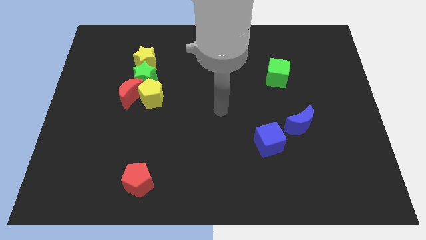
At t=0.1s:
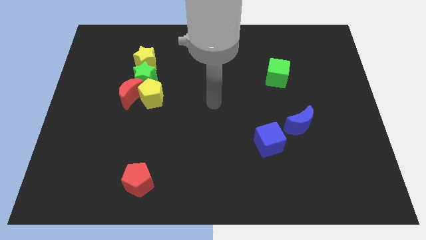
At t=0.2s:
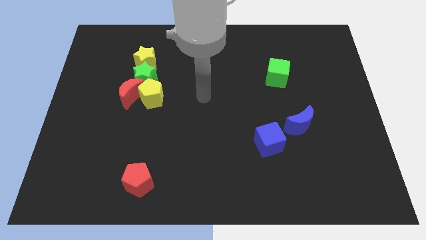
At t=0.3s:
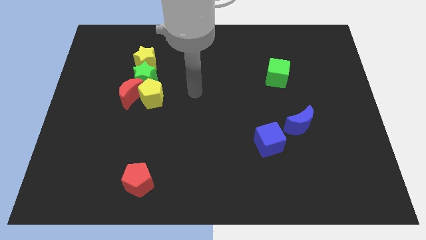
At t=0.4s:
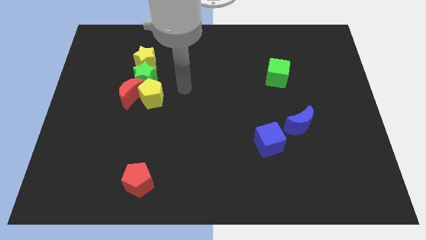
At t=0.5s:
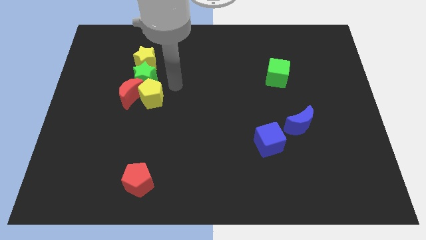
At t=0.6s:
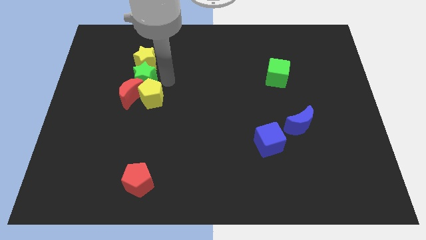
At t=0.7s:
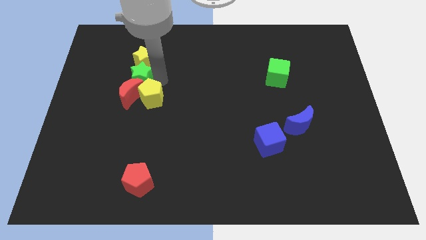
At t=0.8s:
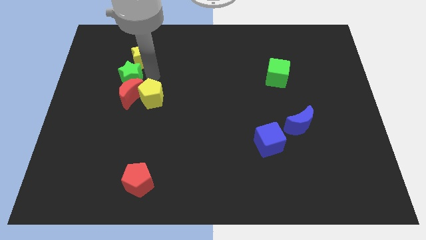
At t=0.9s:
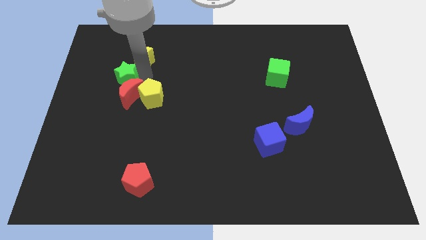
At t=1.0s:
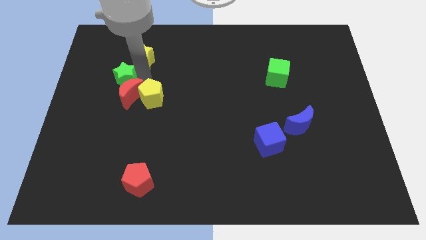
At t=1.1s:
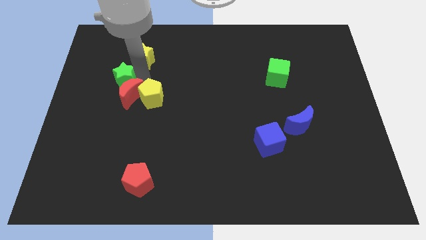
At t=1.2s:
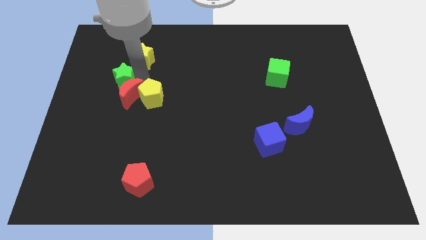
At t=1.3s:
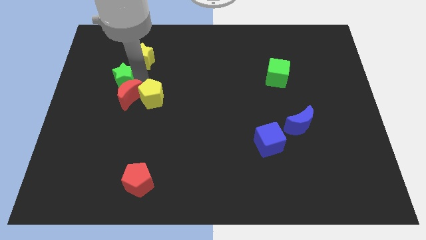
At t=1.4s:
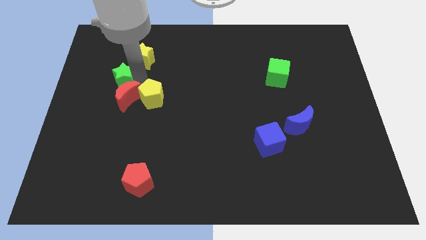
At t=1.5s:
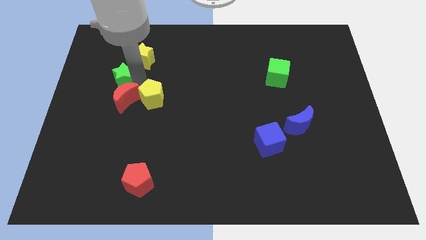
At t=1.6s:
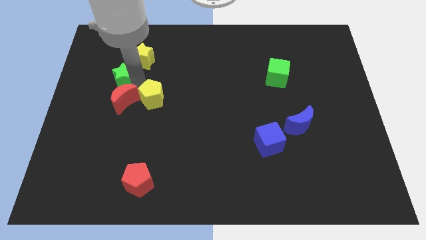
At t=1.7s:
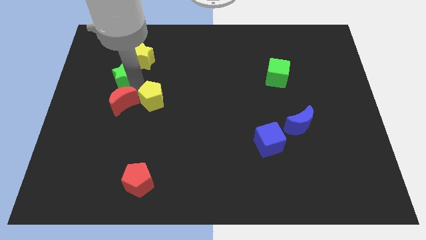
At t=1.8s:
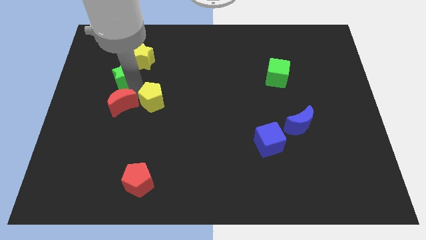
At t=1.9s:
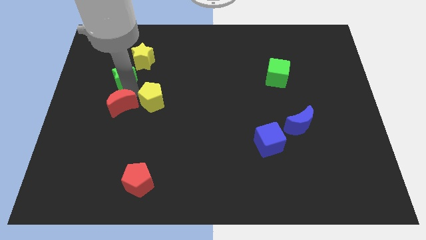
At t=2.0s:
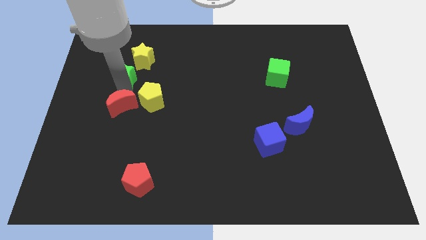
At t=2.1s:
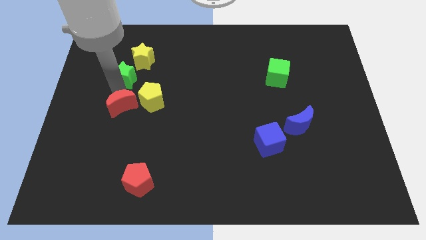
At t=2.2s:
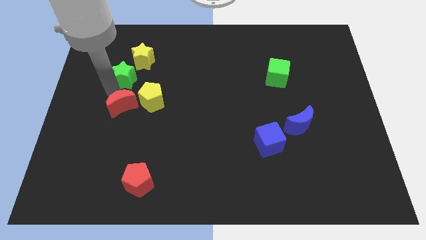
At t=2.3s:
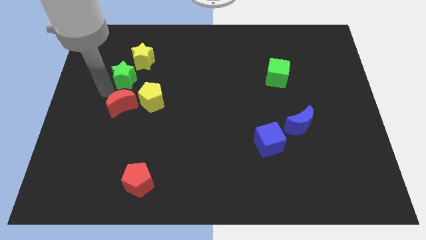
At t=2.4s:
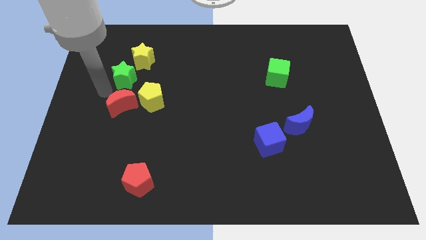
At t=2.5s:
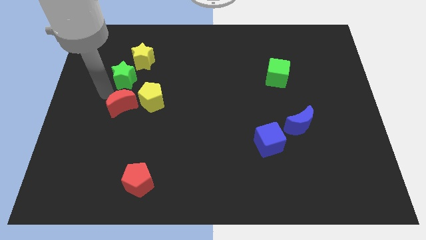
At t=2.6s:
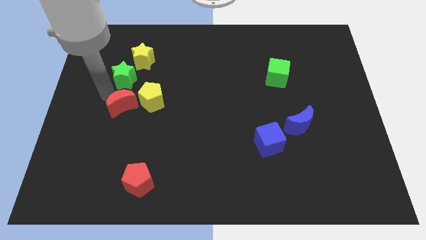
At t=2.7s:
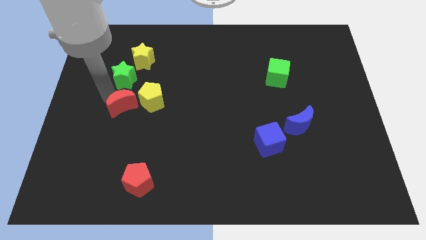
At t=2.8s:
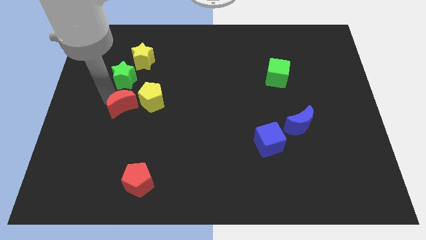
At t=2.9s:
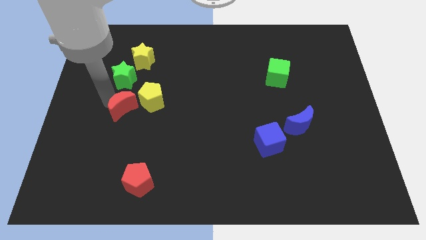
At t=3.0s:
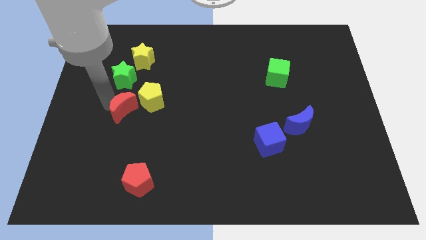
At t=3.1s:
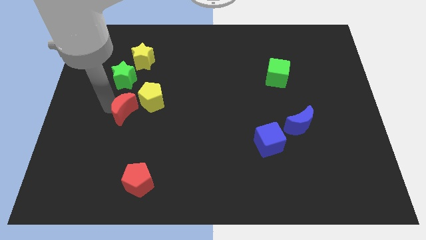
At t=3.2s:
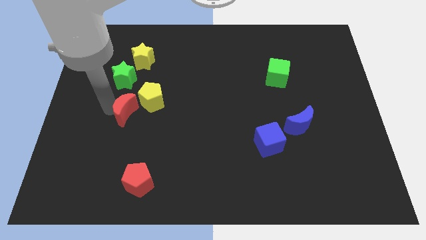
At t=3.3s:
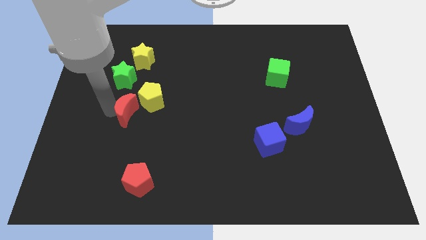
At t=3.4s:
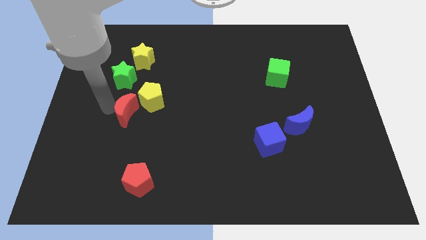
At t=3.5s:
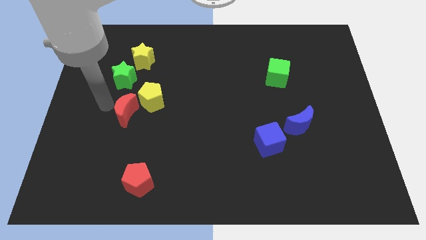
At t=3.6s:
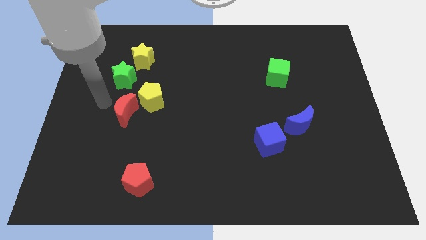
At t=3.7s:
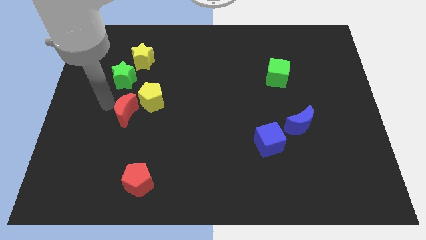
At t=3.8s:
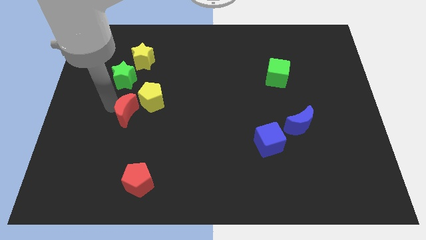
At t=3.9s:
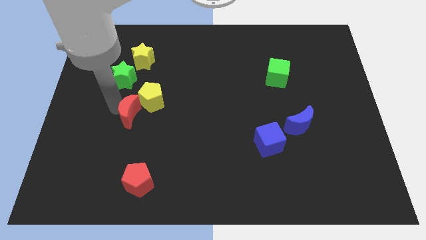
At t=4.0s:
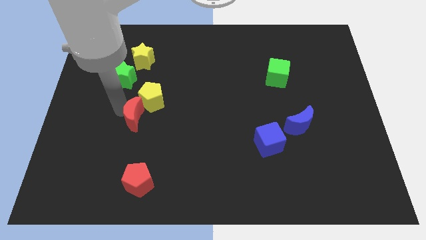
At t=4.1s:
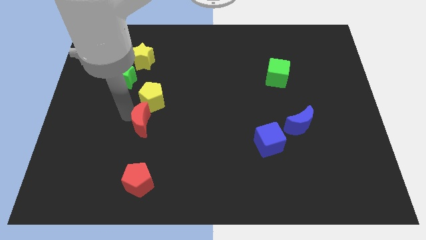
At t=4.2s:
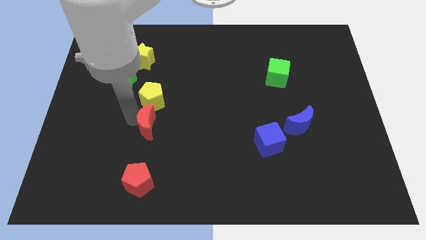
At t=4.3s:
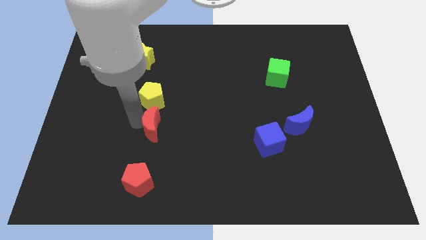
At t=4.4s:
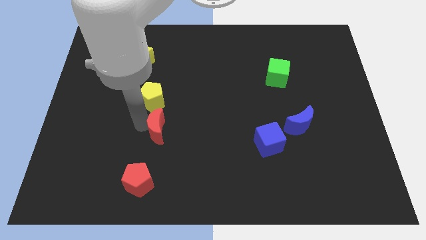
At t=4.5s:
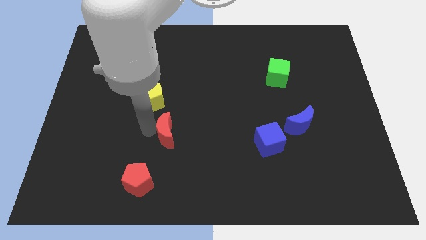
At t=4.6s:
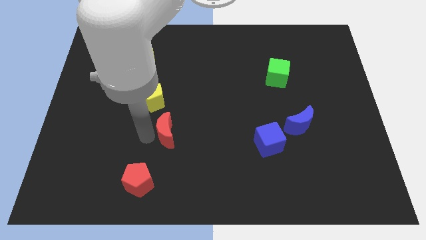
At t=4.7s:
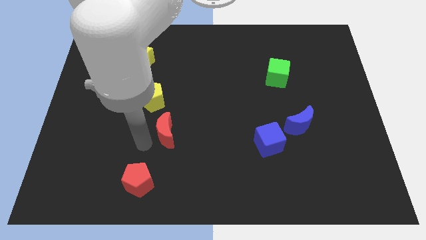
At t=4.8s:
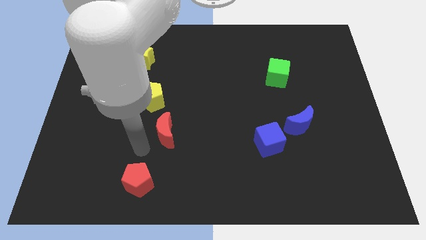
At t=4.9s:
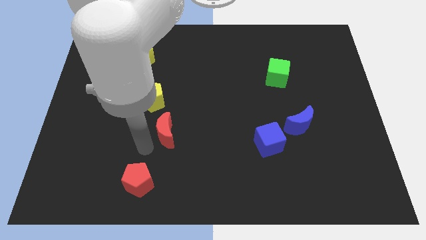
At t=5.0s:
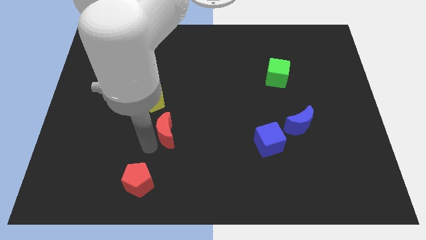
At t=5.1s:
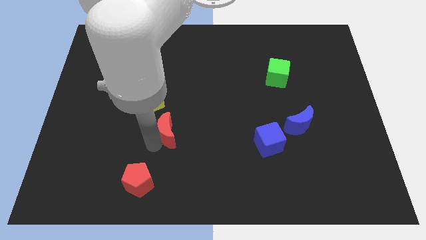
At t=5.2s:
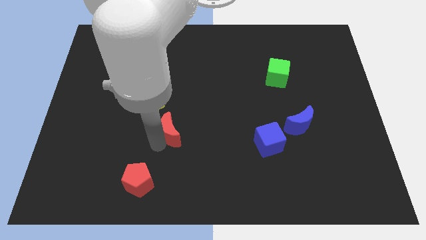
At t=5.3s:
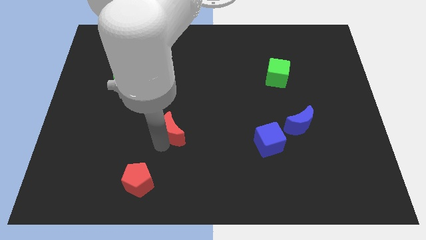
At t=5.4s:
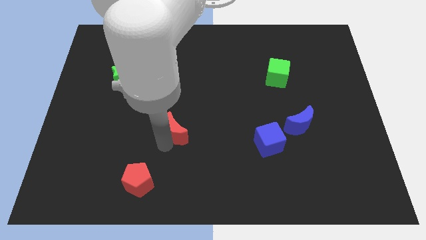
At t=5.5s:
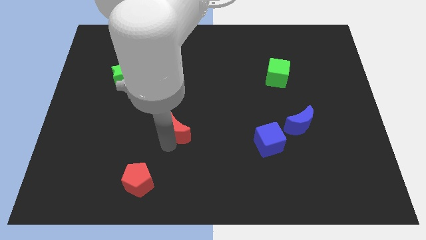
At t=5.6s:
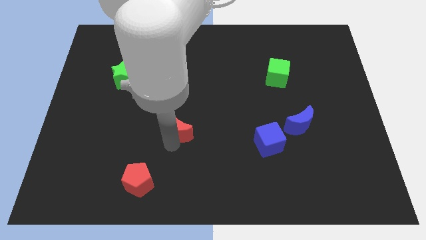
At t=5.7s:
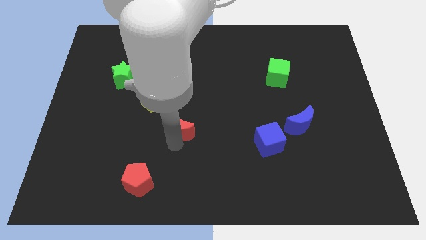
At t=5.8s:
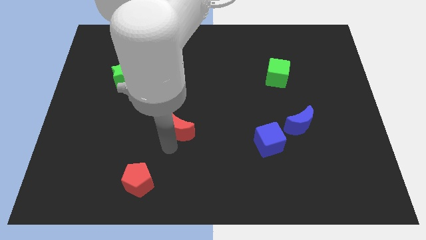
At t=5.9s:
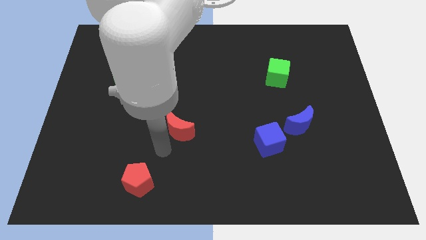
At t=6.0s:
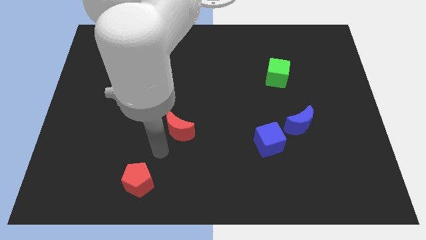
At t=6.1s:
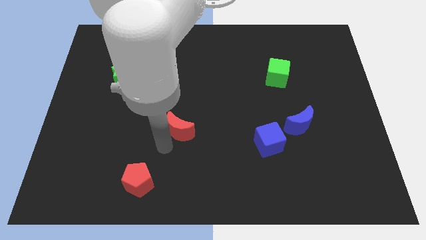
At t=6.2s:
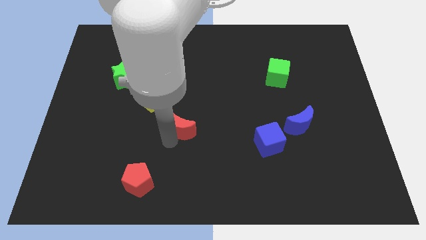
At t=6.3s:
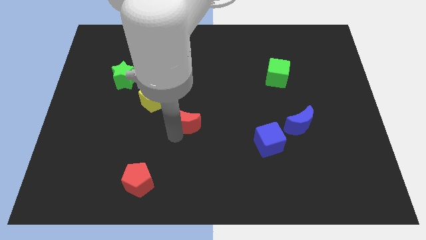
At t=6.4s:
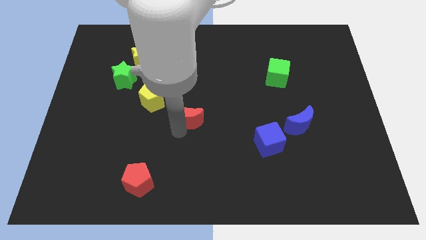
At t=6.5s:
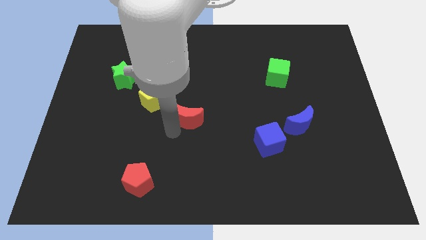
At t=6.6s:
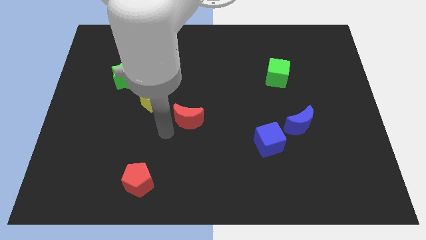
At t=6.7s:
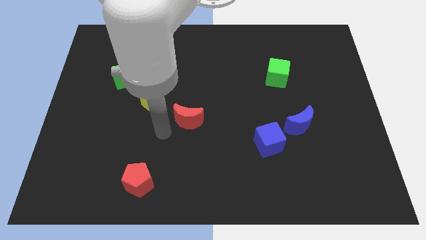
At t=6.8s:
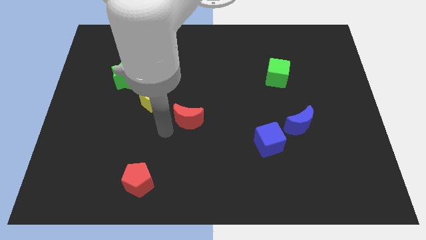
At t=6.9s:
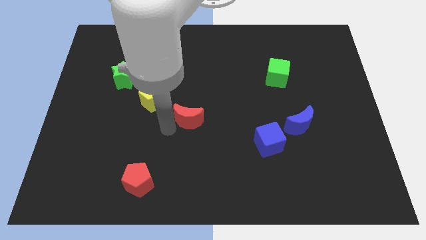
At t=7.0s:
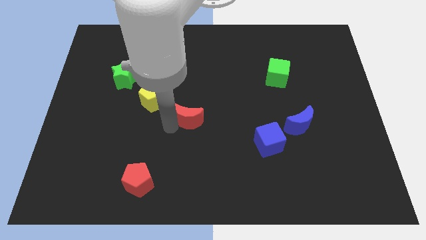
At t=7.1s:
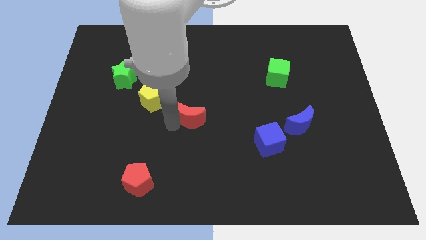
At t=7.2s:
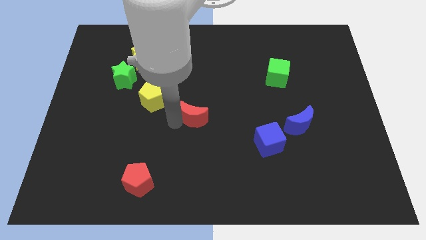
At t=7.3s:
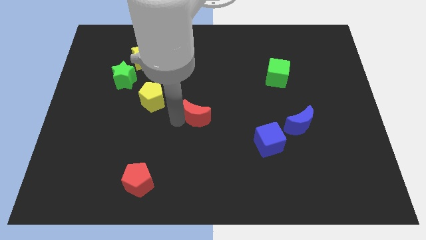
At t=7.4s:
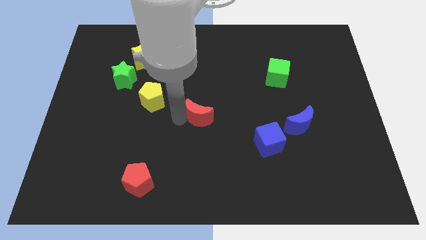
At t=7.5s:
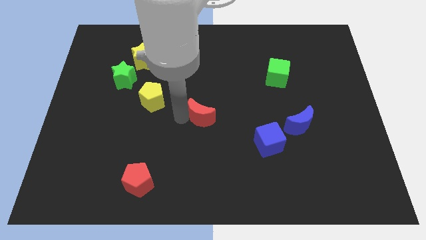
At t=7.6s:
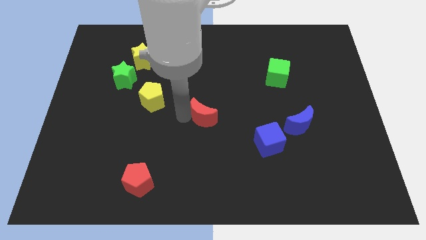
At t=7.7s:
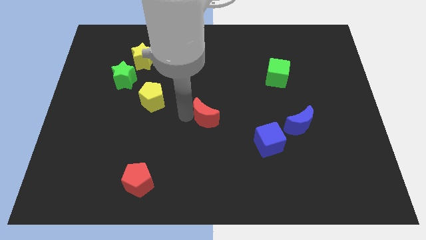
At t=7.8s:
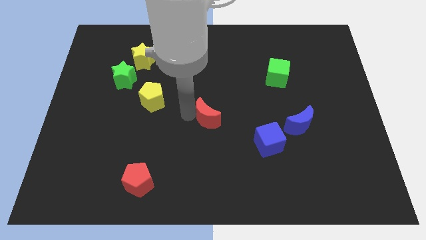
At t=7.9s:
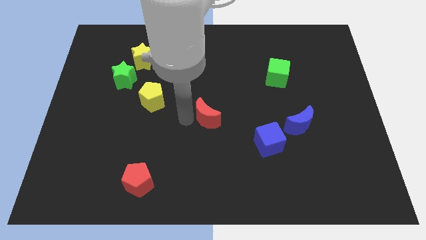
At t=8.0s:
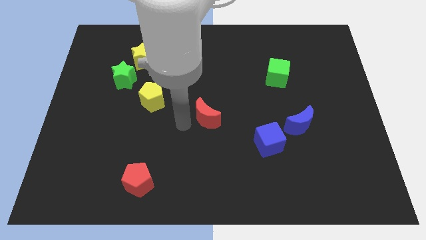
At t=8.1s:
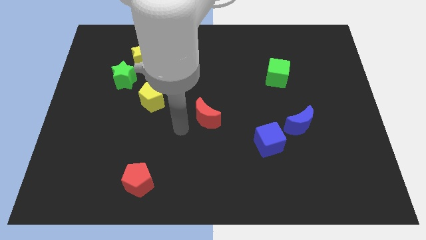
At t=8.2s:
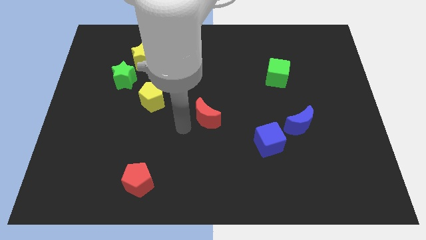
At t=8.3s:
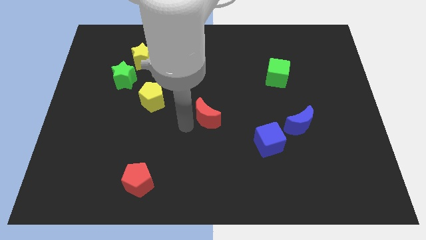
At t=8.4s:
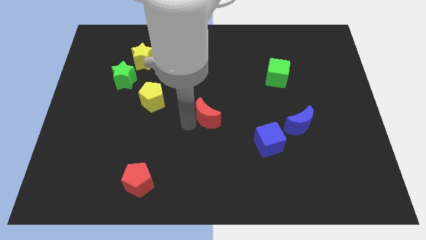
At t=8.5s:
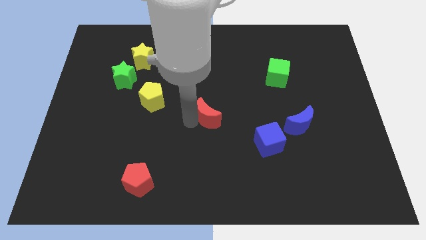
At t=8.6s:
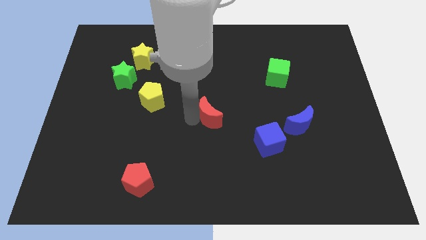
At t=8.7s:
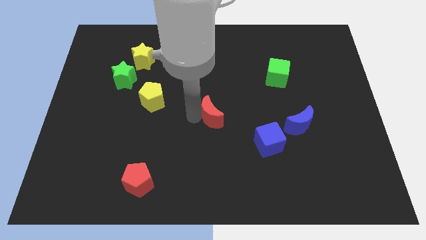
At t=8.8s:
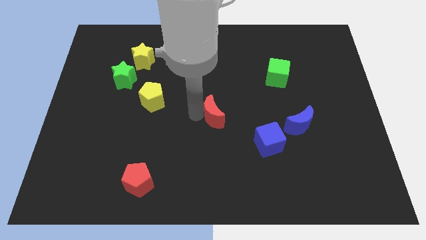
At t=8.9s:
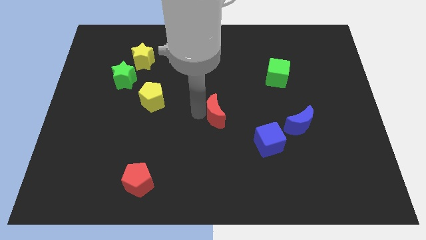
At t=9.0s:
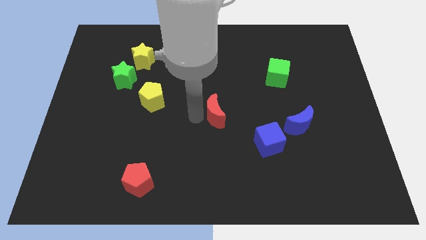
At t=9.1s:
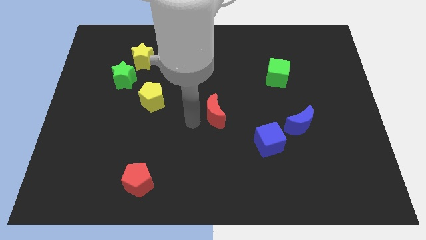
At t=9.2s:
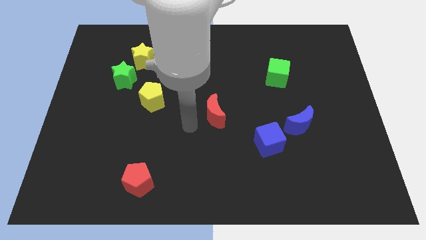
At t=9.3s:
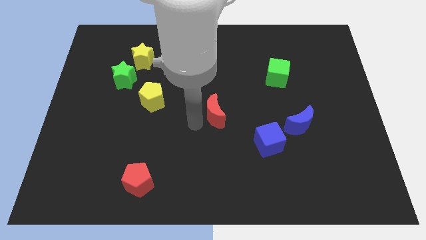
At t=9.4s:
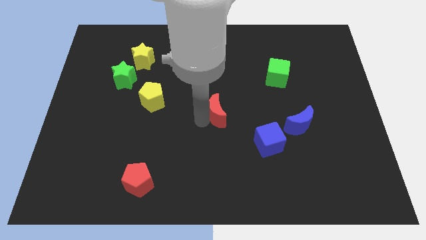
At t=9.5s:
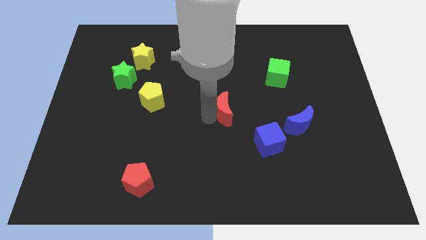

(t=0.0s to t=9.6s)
push the red moon right
